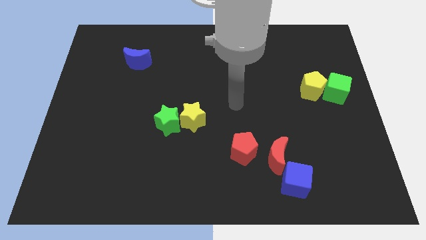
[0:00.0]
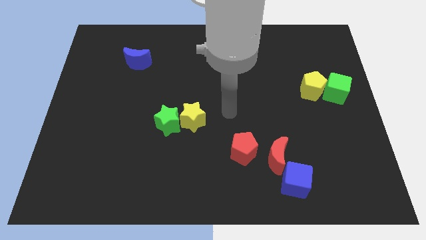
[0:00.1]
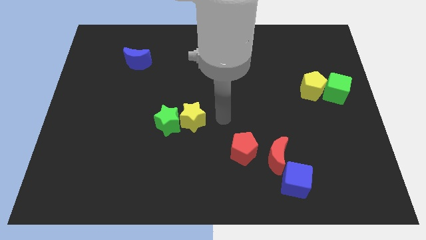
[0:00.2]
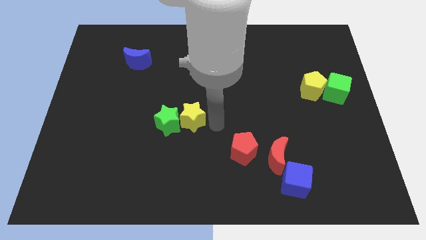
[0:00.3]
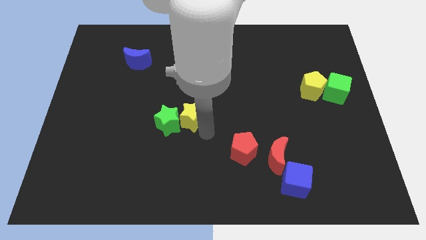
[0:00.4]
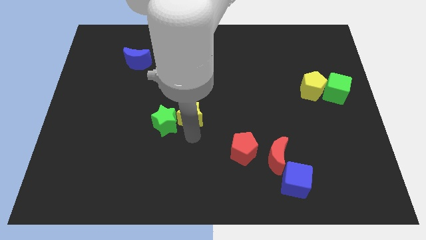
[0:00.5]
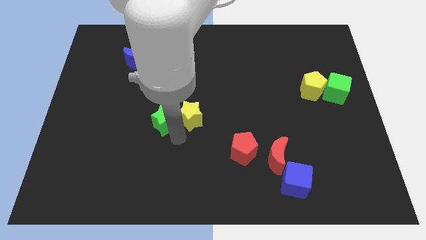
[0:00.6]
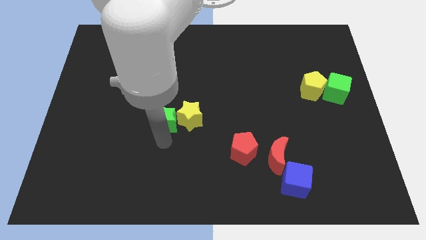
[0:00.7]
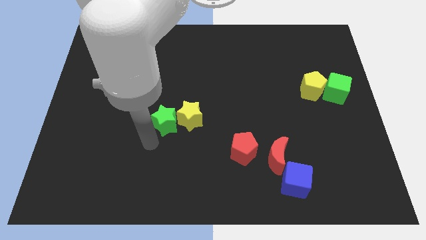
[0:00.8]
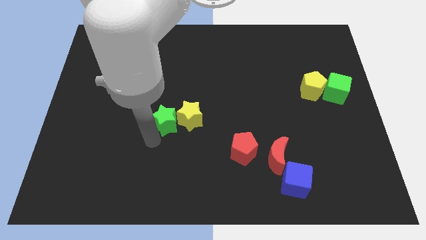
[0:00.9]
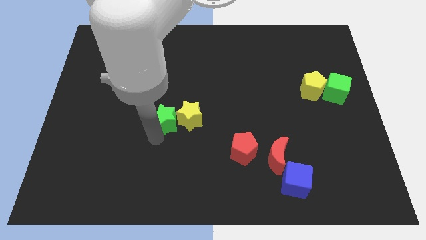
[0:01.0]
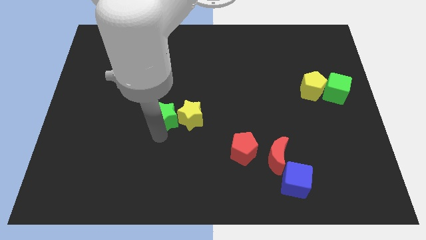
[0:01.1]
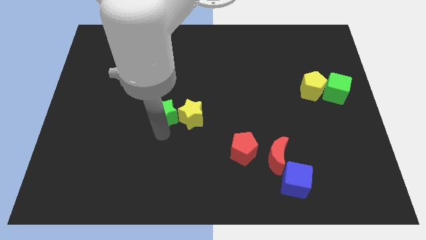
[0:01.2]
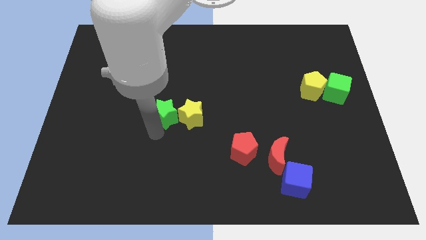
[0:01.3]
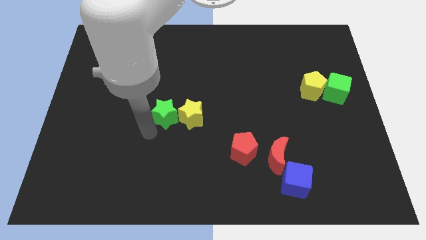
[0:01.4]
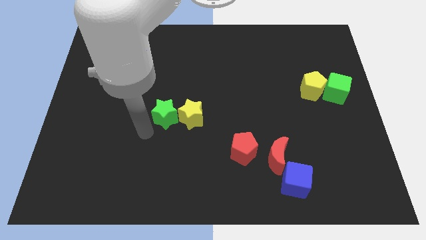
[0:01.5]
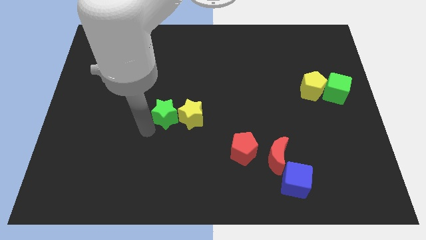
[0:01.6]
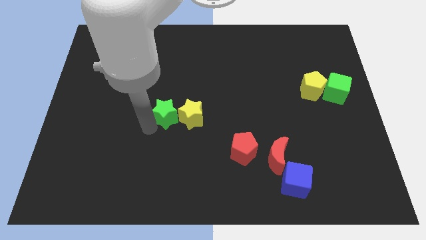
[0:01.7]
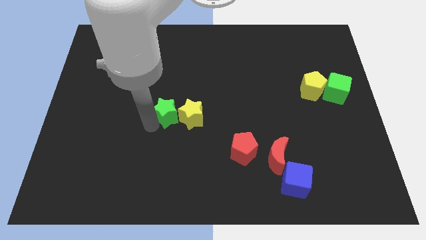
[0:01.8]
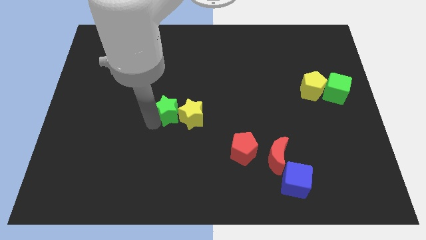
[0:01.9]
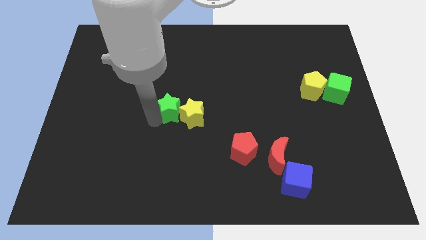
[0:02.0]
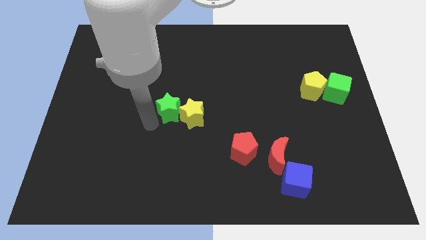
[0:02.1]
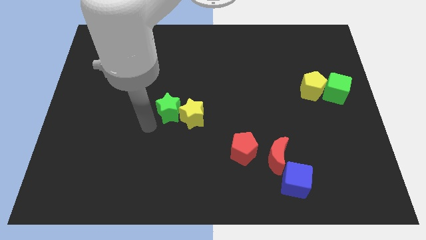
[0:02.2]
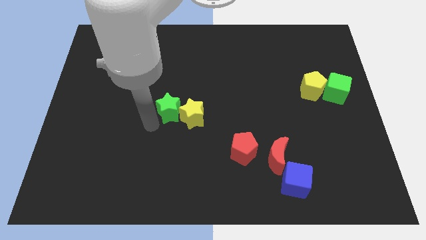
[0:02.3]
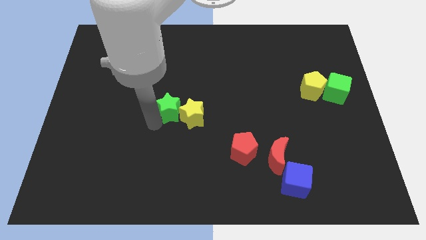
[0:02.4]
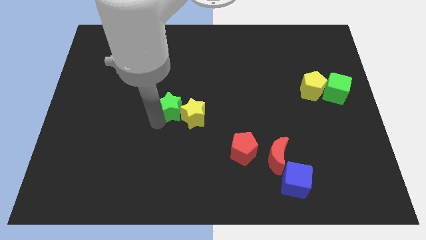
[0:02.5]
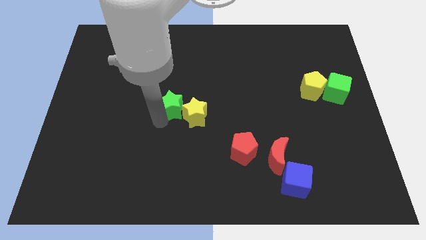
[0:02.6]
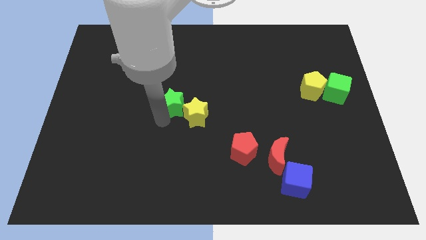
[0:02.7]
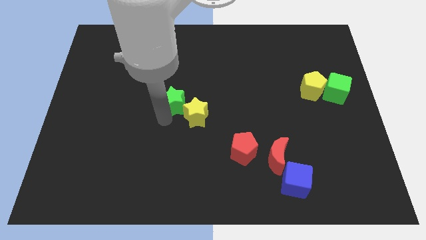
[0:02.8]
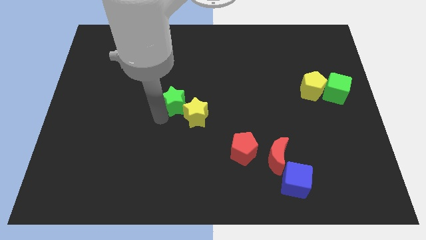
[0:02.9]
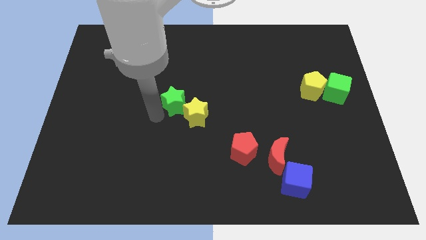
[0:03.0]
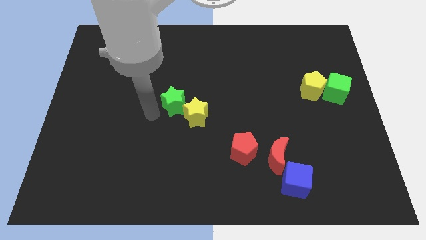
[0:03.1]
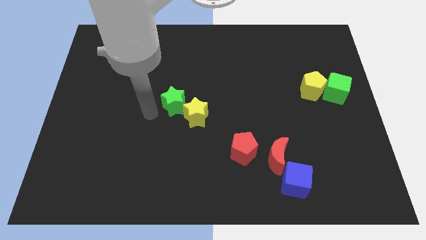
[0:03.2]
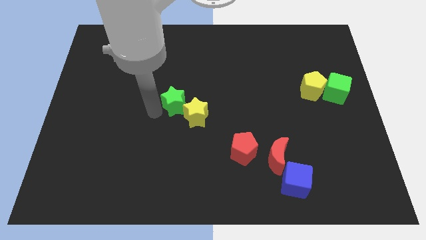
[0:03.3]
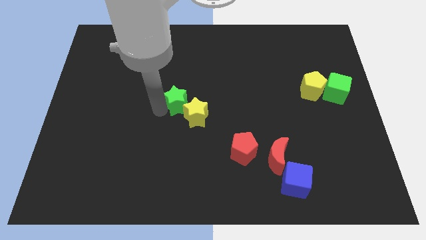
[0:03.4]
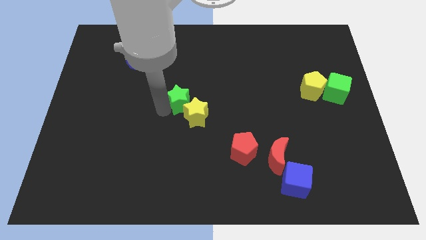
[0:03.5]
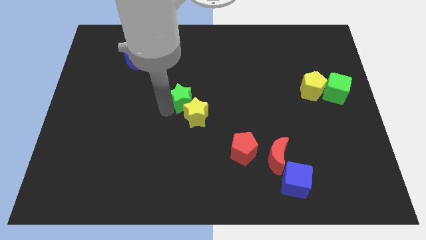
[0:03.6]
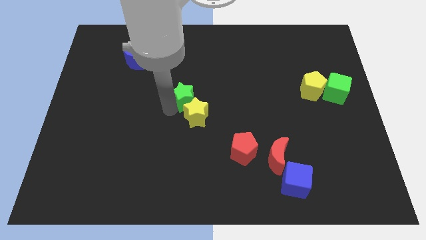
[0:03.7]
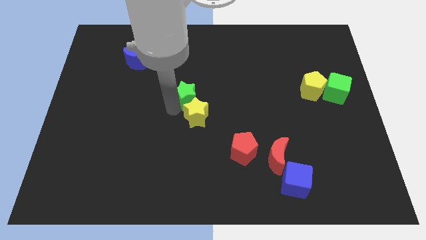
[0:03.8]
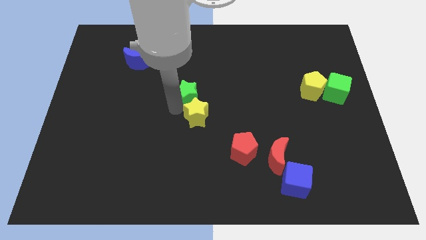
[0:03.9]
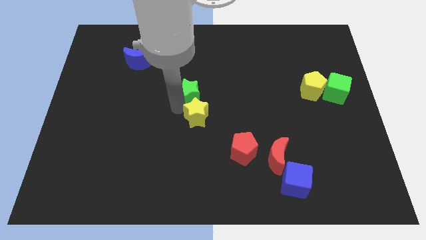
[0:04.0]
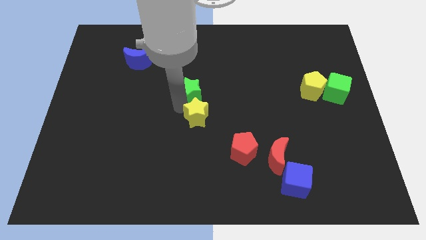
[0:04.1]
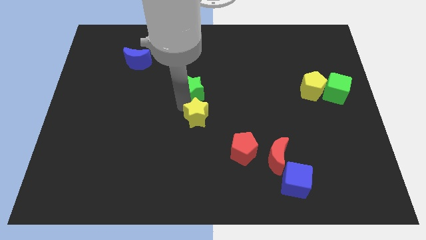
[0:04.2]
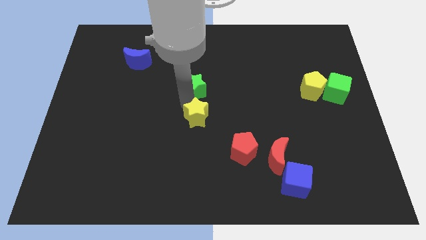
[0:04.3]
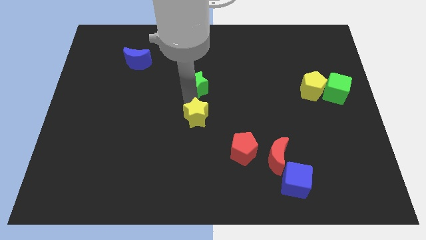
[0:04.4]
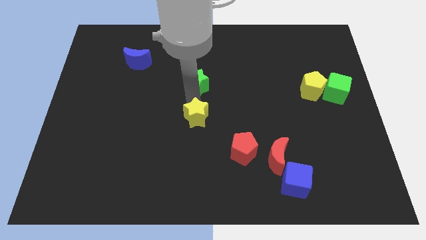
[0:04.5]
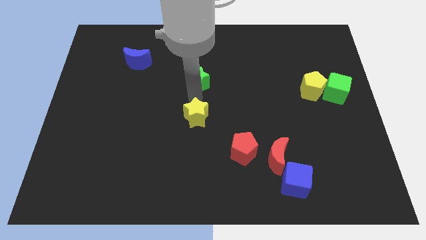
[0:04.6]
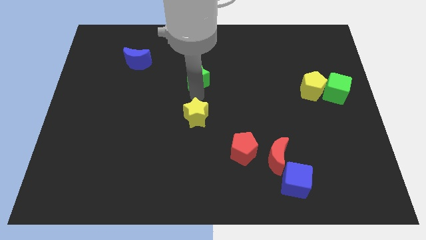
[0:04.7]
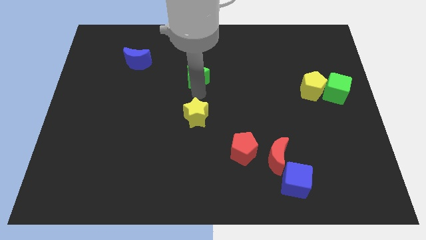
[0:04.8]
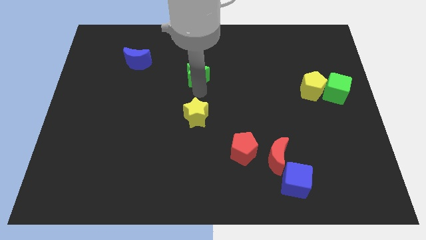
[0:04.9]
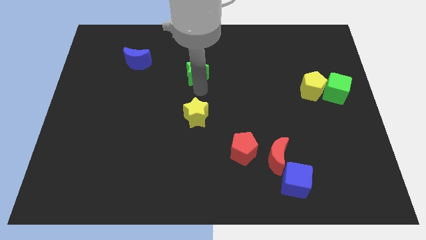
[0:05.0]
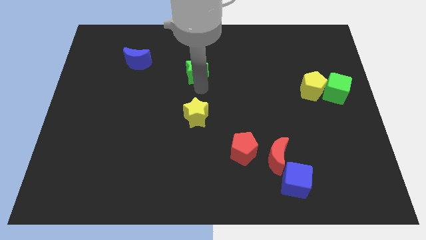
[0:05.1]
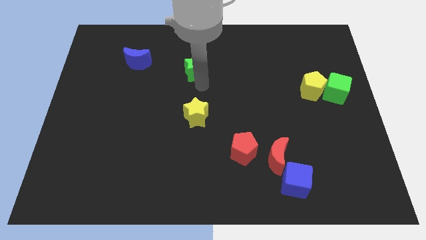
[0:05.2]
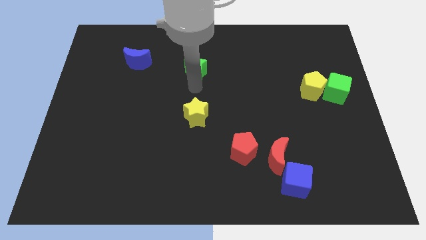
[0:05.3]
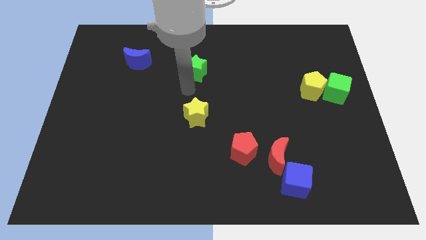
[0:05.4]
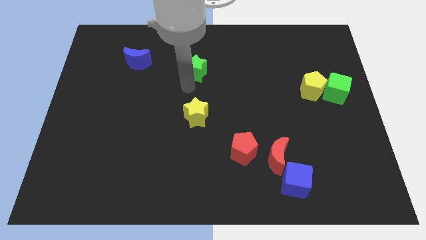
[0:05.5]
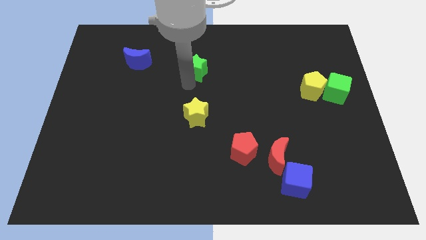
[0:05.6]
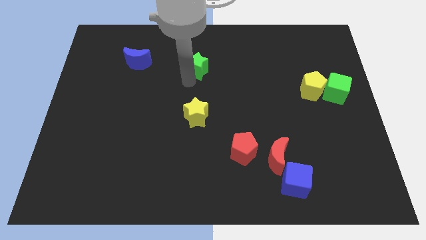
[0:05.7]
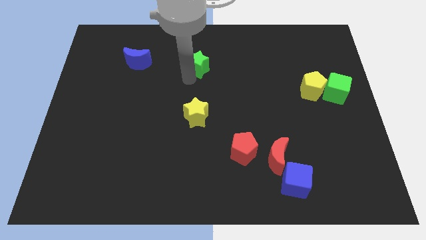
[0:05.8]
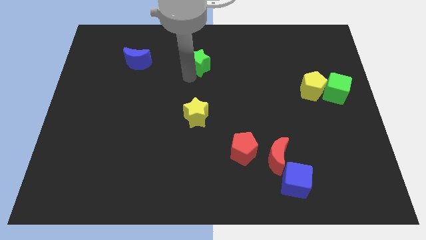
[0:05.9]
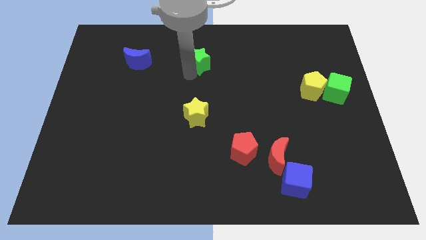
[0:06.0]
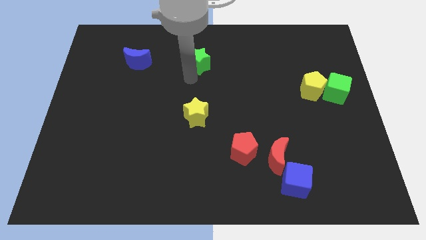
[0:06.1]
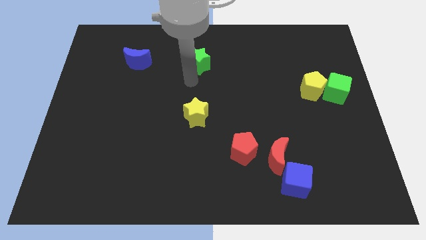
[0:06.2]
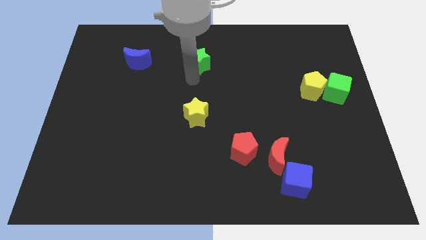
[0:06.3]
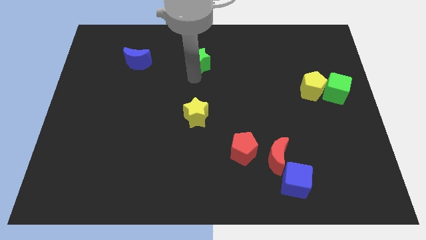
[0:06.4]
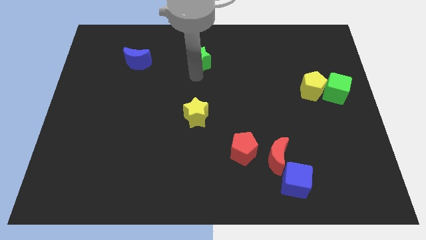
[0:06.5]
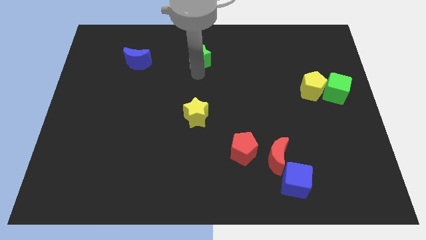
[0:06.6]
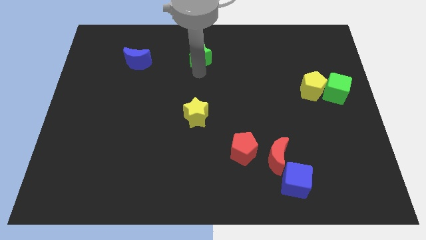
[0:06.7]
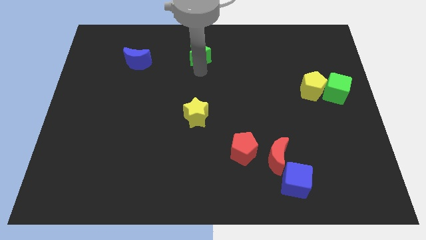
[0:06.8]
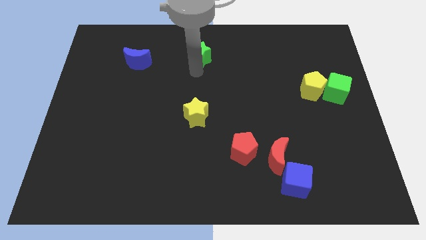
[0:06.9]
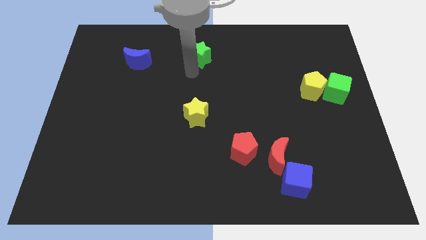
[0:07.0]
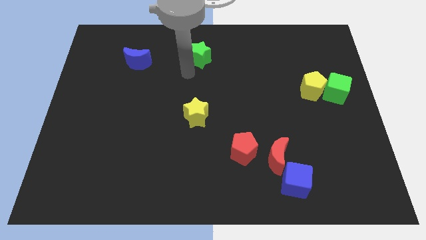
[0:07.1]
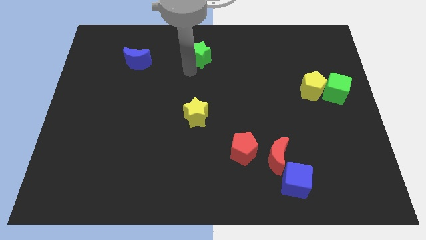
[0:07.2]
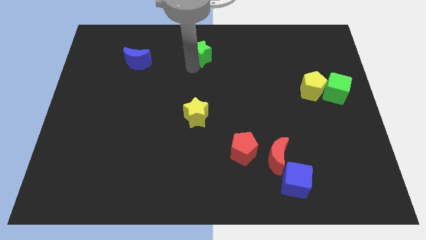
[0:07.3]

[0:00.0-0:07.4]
push the green star to the top side
